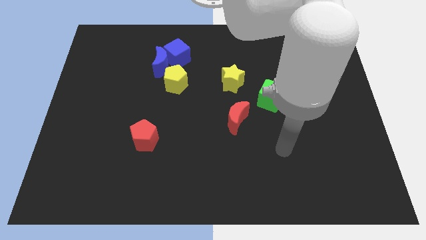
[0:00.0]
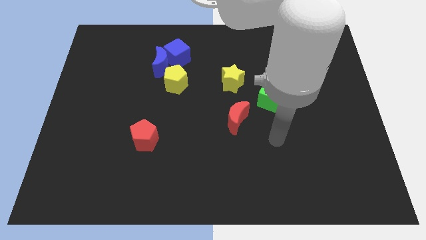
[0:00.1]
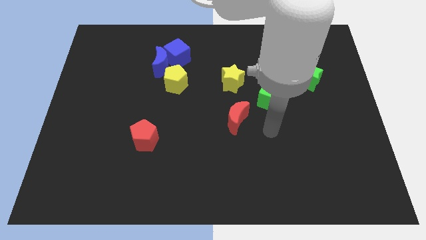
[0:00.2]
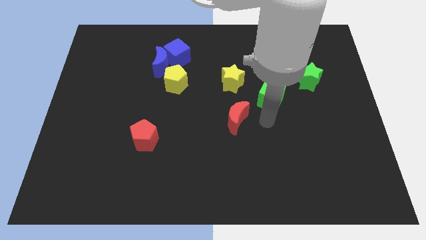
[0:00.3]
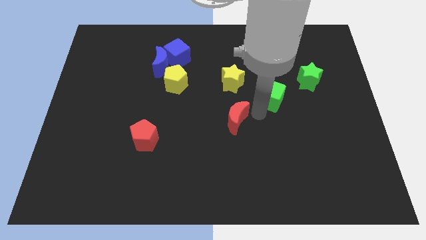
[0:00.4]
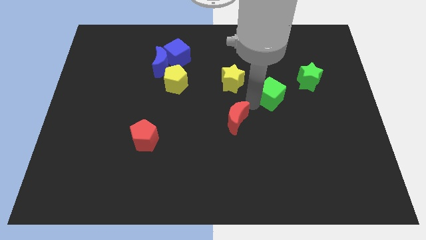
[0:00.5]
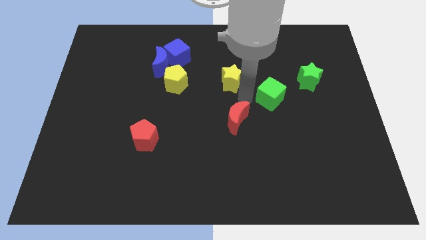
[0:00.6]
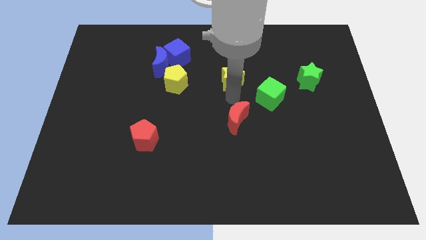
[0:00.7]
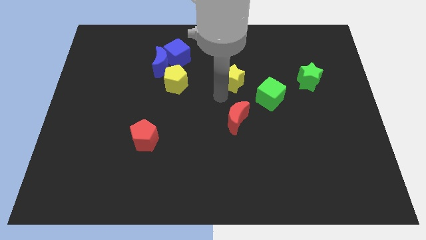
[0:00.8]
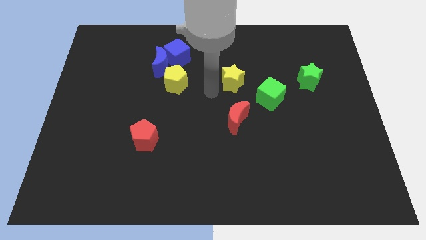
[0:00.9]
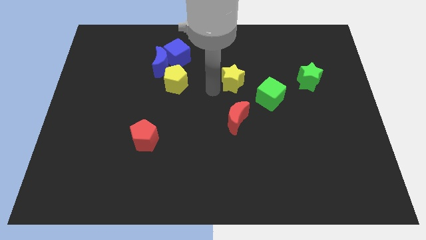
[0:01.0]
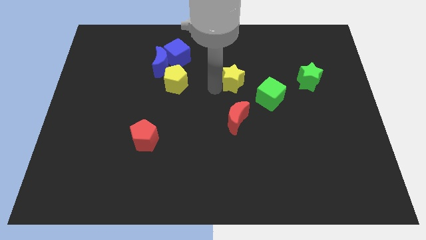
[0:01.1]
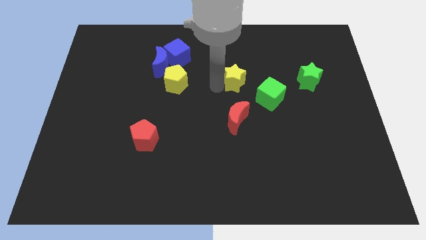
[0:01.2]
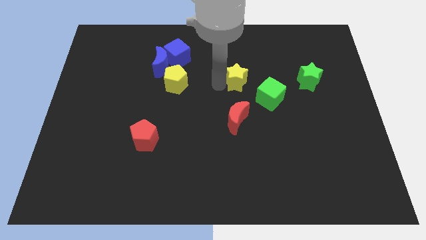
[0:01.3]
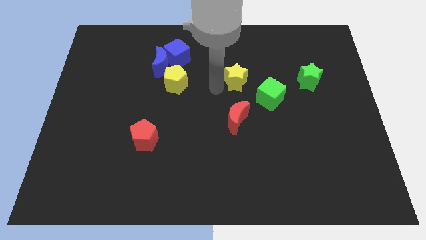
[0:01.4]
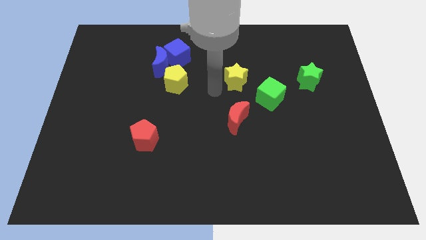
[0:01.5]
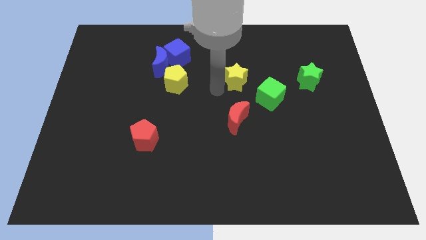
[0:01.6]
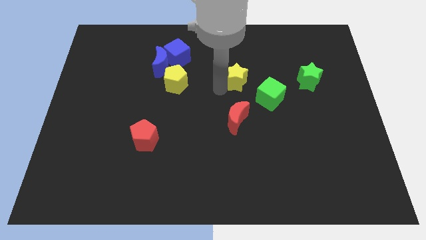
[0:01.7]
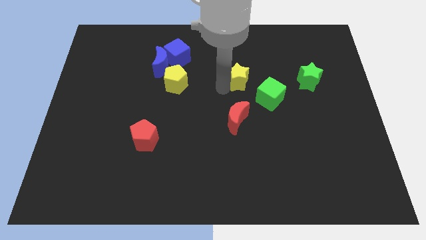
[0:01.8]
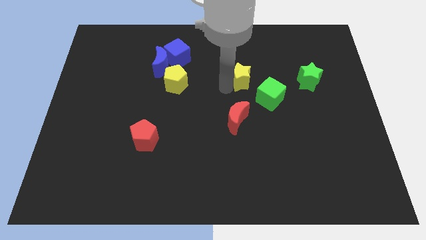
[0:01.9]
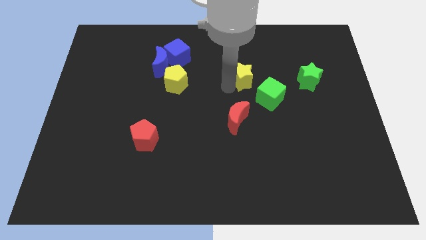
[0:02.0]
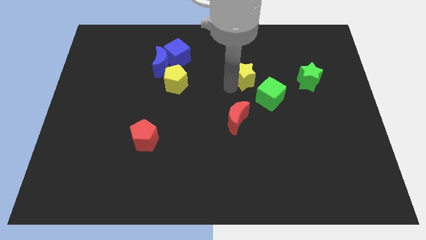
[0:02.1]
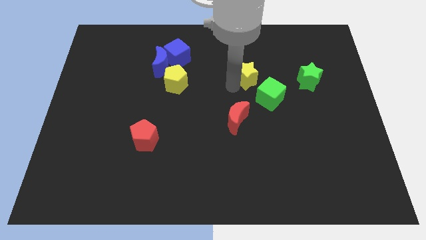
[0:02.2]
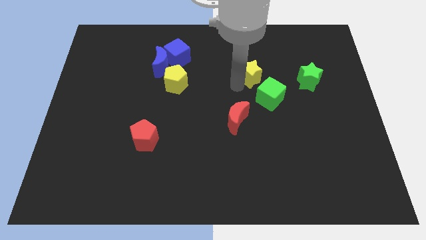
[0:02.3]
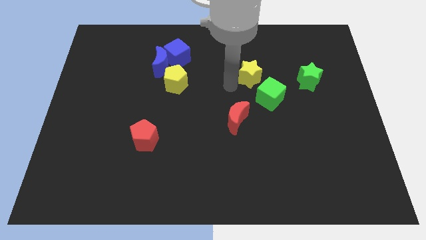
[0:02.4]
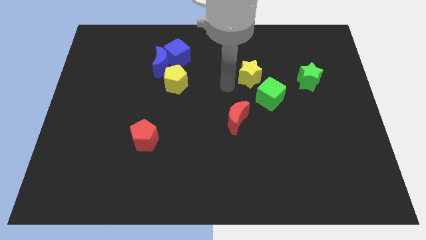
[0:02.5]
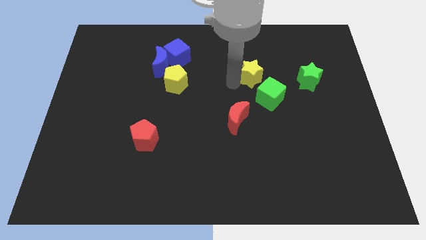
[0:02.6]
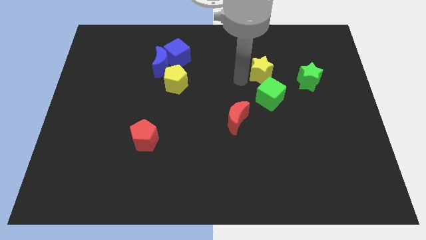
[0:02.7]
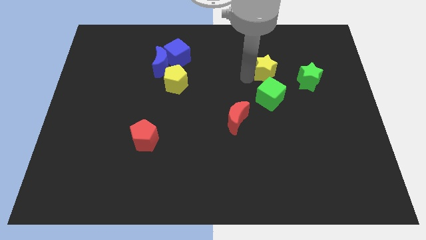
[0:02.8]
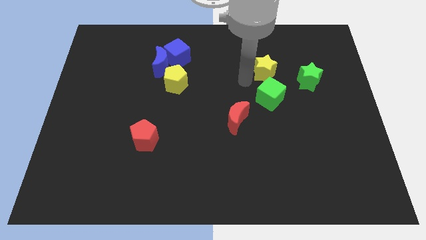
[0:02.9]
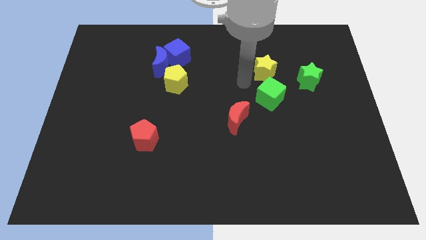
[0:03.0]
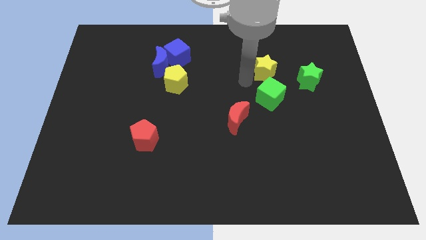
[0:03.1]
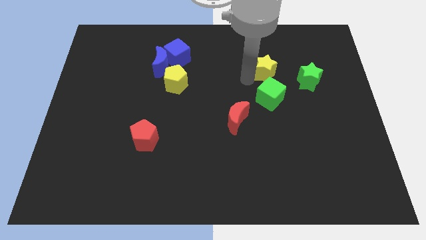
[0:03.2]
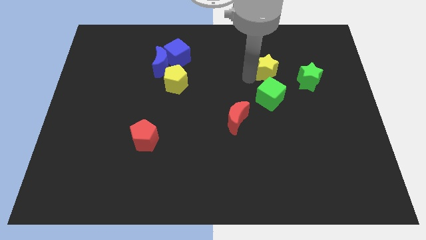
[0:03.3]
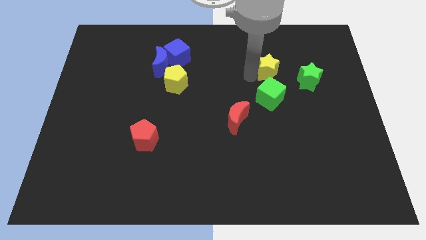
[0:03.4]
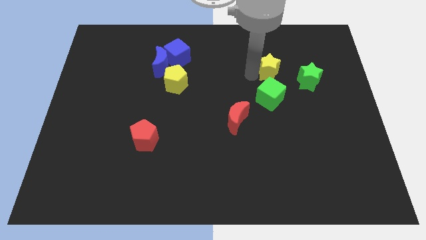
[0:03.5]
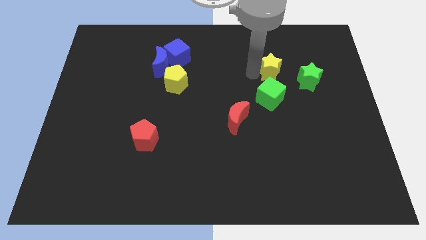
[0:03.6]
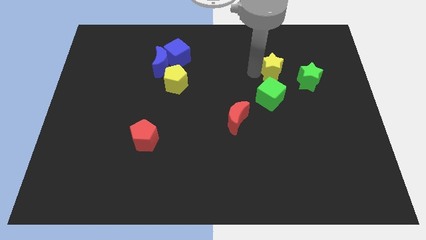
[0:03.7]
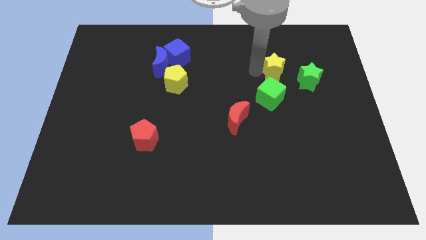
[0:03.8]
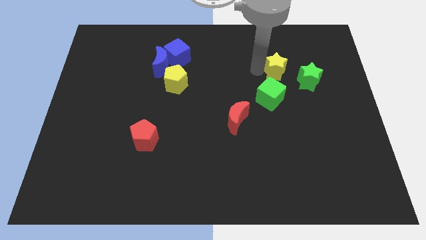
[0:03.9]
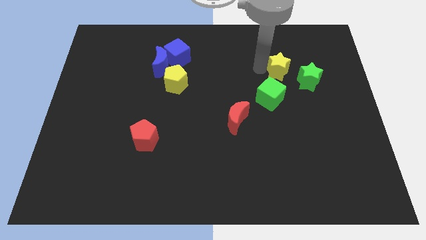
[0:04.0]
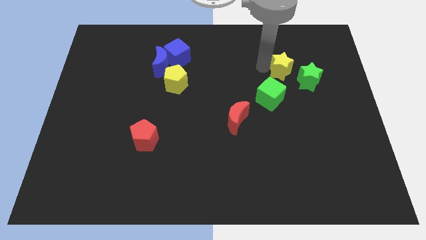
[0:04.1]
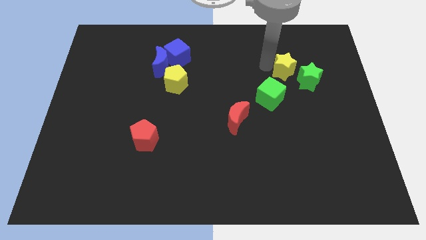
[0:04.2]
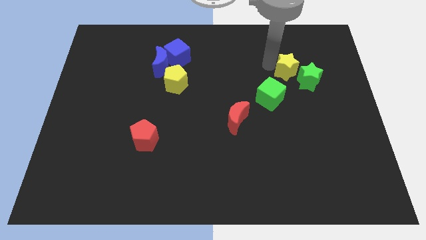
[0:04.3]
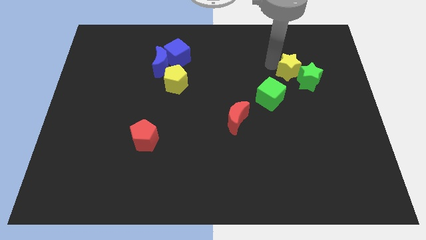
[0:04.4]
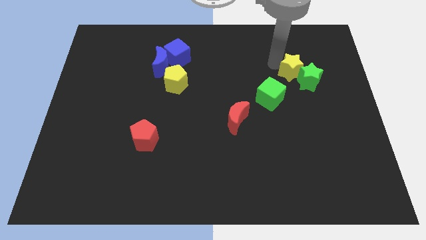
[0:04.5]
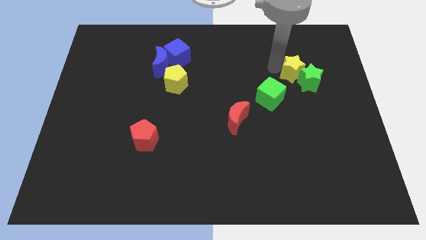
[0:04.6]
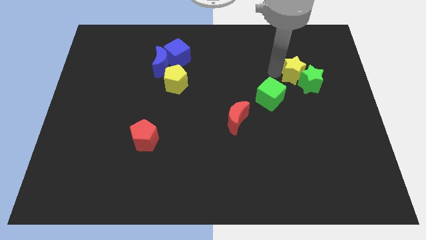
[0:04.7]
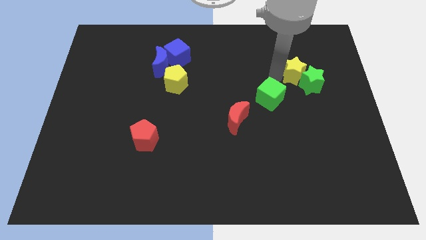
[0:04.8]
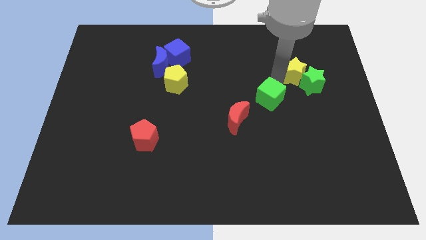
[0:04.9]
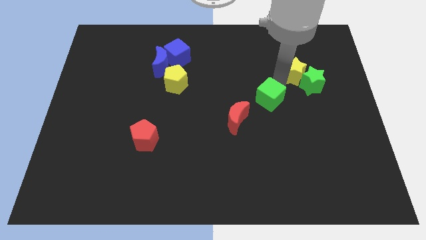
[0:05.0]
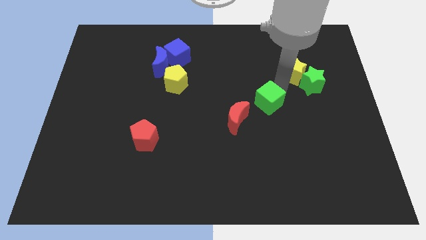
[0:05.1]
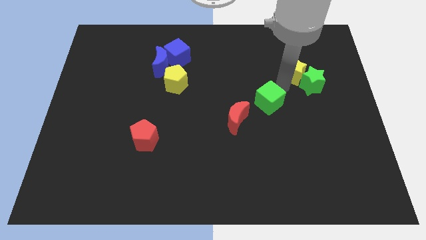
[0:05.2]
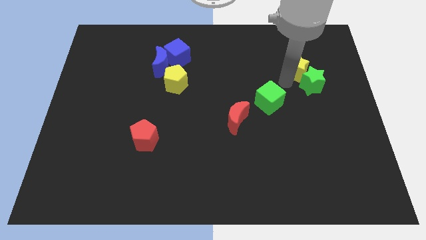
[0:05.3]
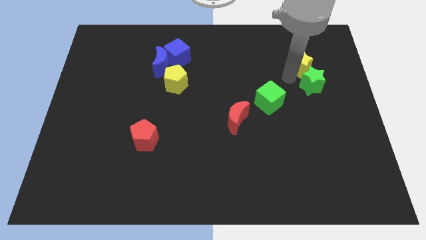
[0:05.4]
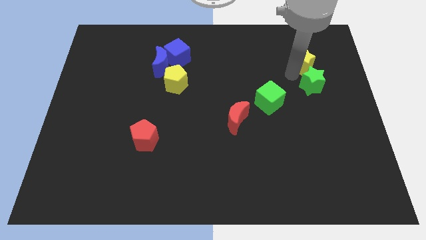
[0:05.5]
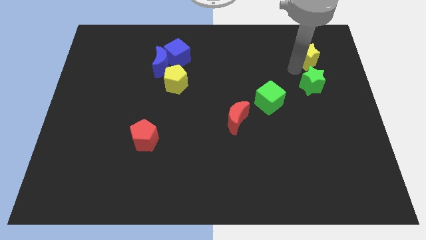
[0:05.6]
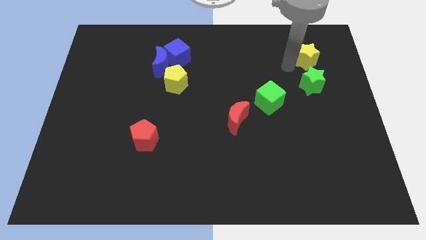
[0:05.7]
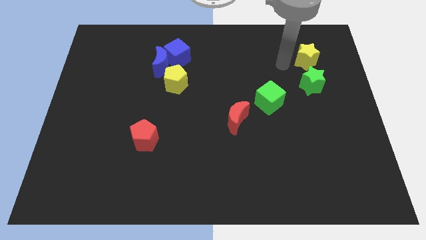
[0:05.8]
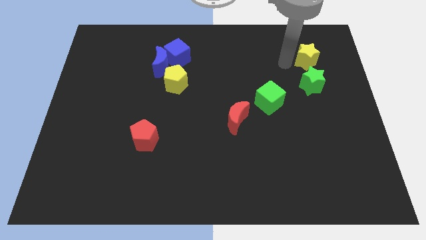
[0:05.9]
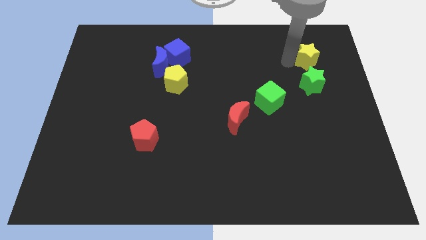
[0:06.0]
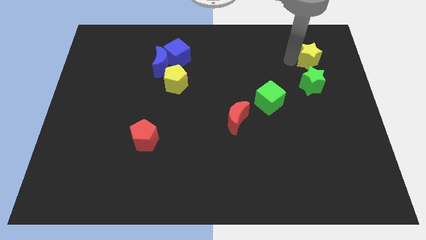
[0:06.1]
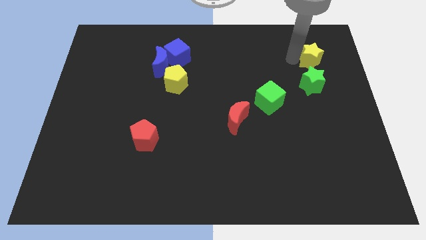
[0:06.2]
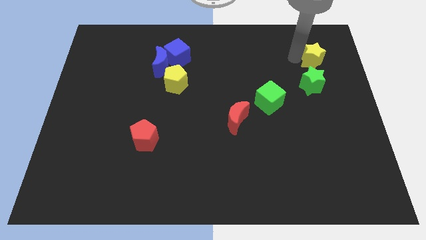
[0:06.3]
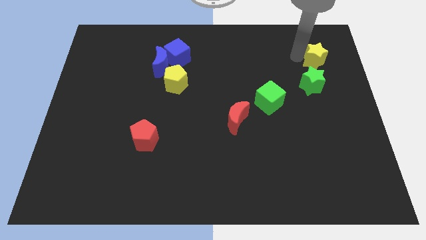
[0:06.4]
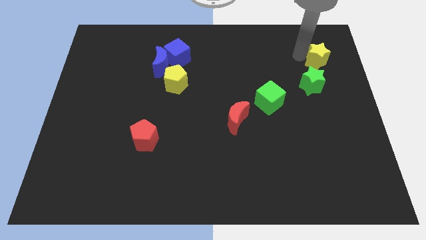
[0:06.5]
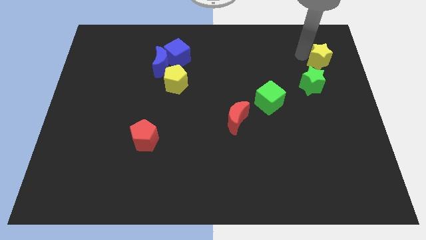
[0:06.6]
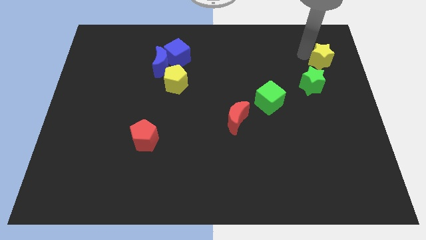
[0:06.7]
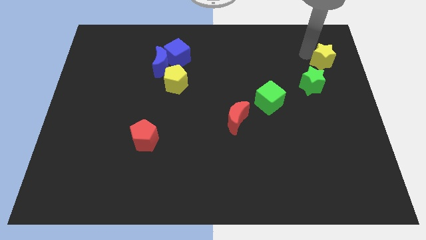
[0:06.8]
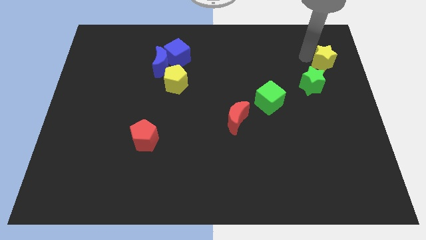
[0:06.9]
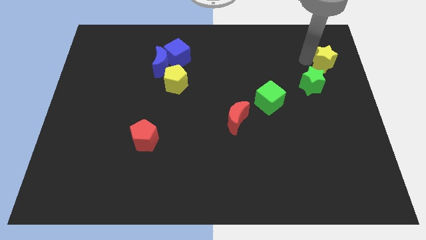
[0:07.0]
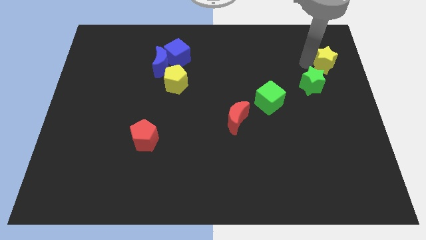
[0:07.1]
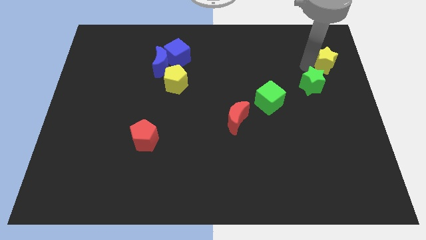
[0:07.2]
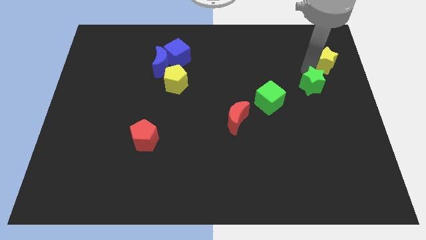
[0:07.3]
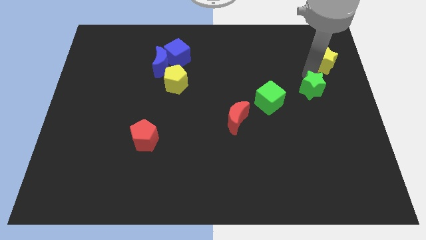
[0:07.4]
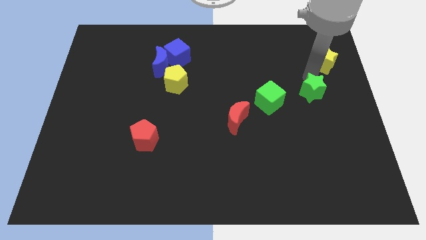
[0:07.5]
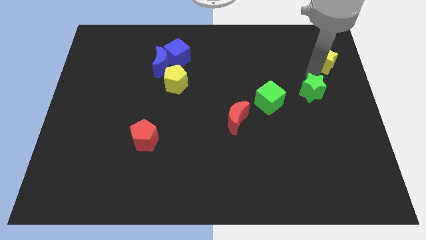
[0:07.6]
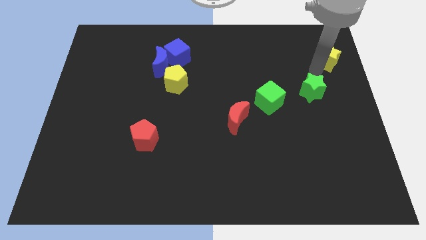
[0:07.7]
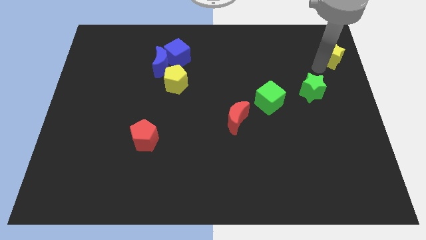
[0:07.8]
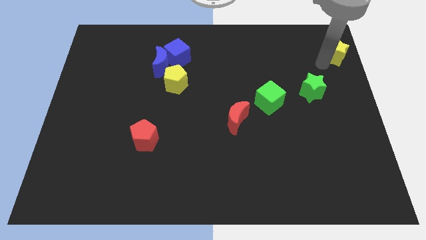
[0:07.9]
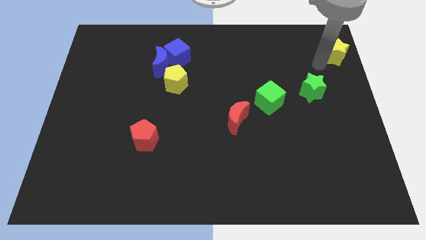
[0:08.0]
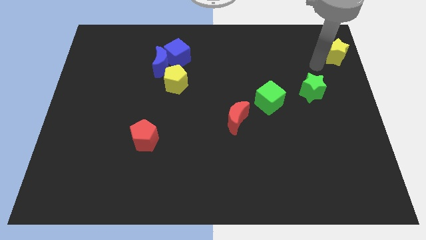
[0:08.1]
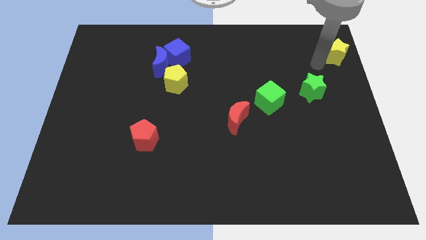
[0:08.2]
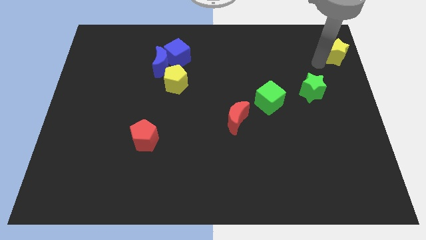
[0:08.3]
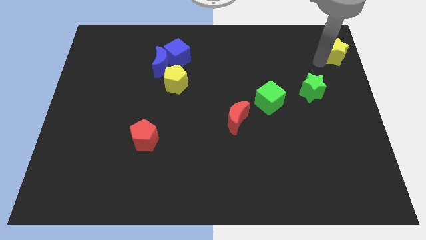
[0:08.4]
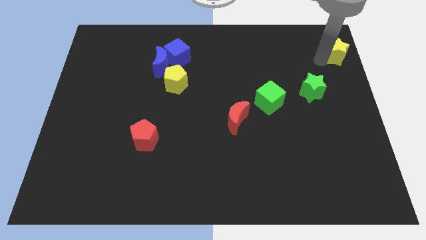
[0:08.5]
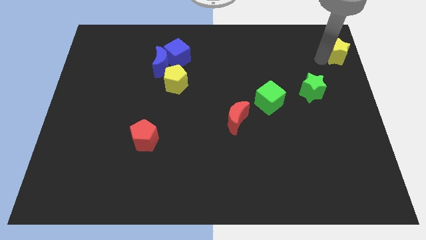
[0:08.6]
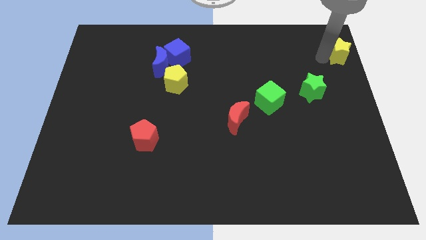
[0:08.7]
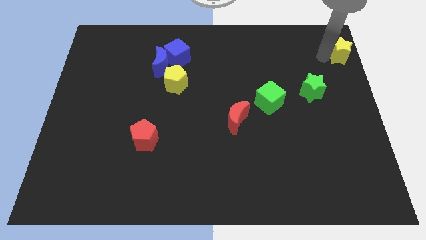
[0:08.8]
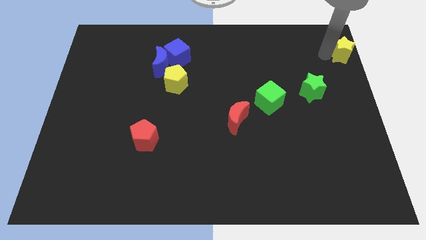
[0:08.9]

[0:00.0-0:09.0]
move the yellow star to the top right of the board
